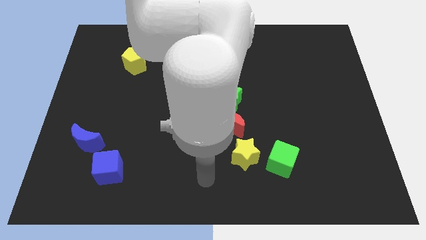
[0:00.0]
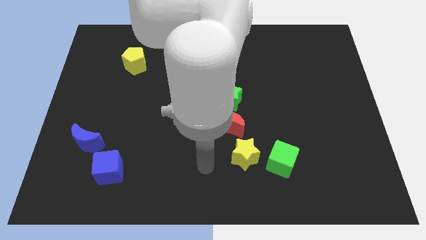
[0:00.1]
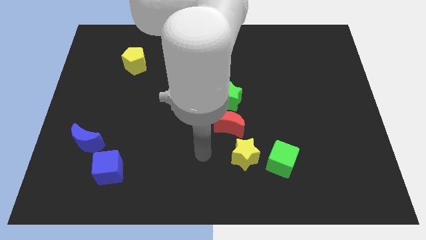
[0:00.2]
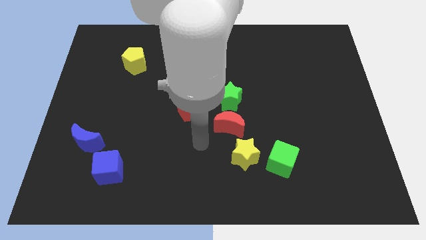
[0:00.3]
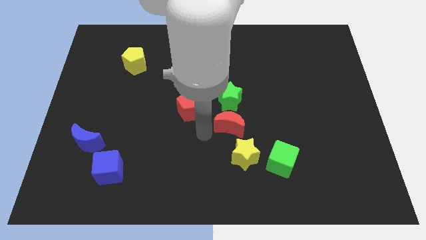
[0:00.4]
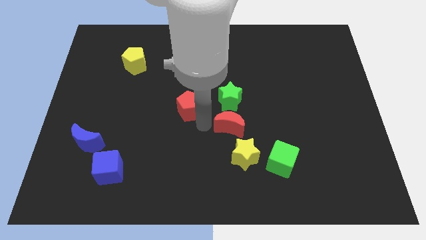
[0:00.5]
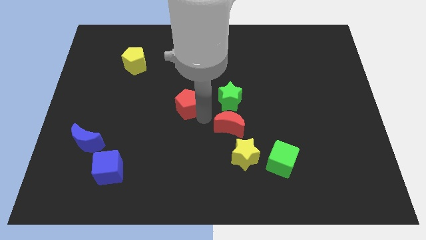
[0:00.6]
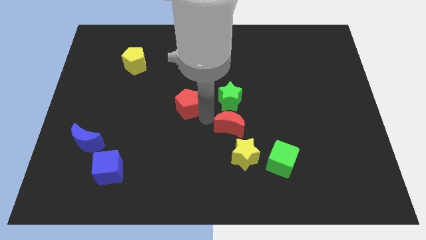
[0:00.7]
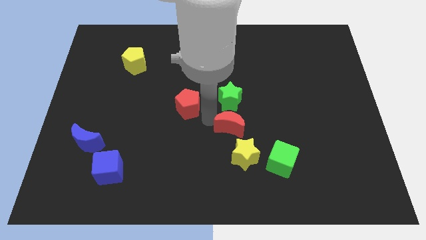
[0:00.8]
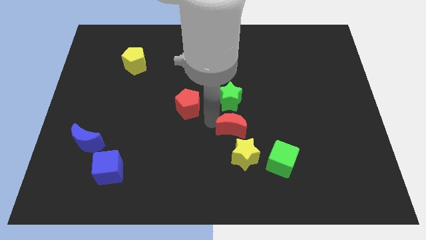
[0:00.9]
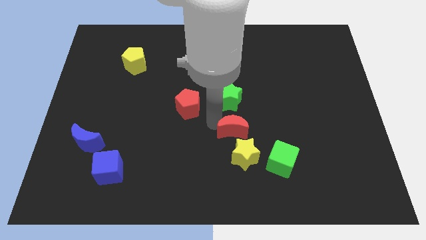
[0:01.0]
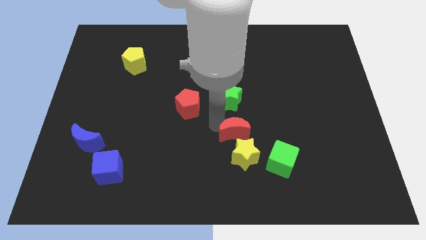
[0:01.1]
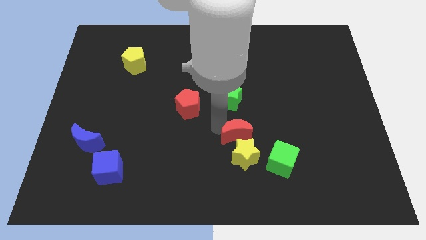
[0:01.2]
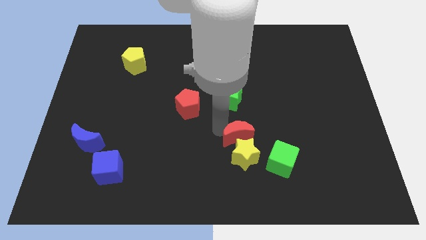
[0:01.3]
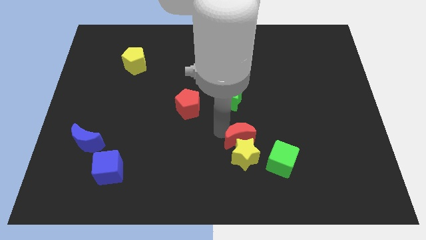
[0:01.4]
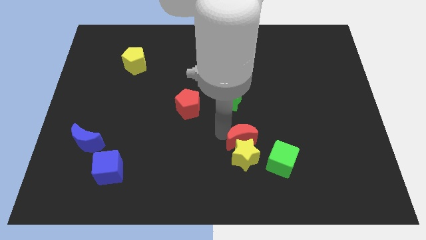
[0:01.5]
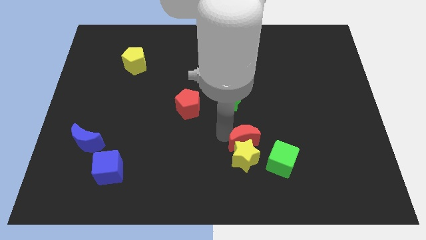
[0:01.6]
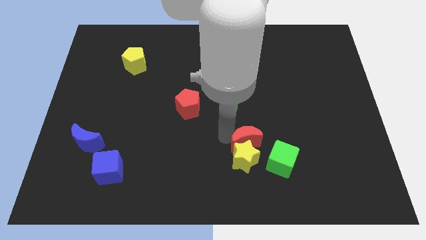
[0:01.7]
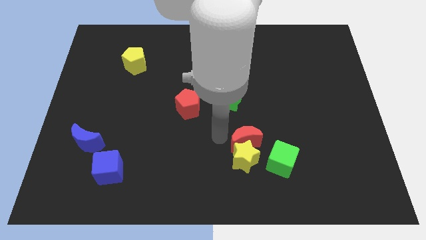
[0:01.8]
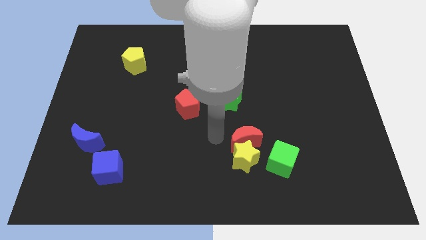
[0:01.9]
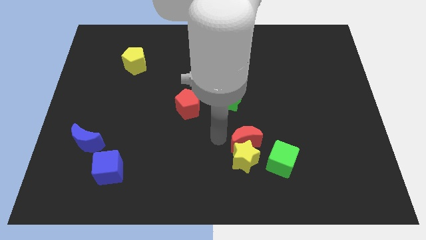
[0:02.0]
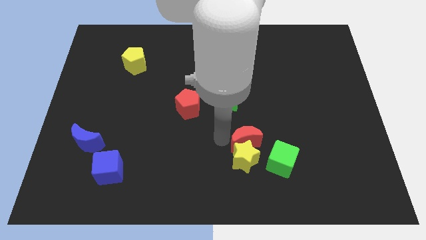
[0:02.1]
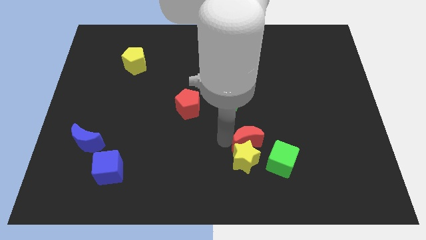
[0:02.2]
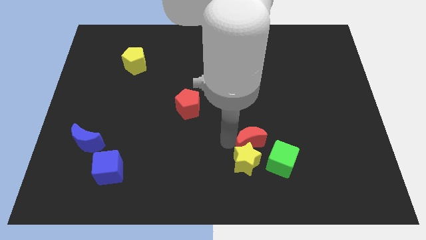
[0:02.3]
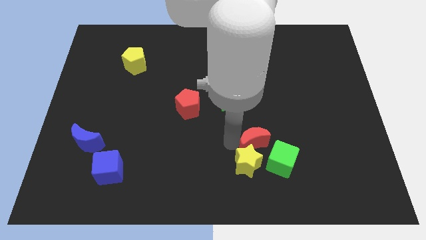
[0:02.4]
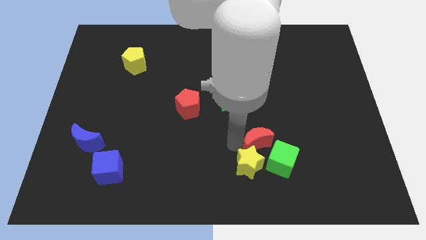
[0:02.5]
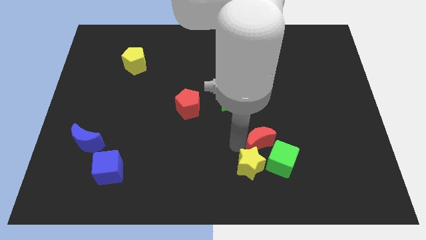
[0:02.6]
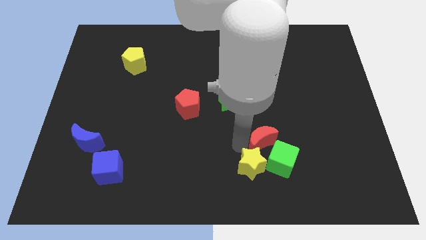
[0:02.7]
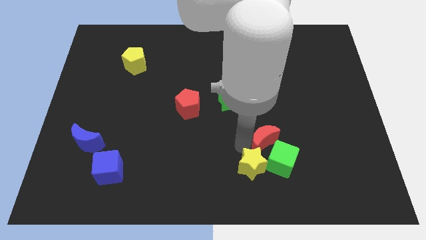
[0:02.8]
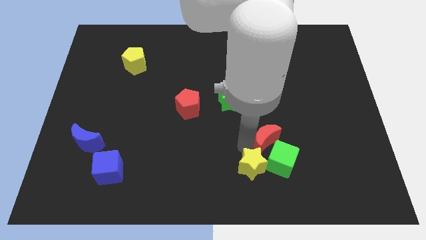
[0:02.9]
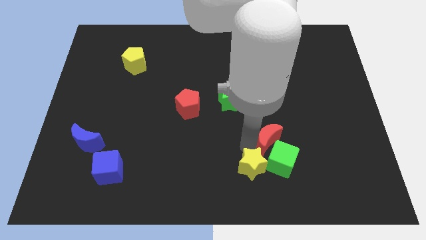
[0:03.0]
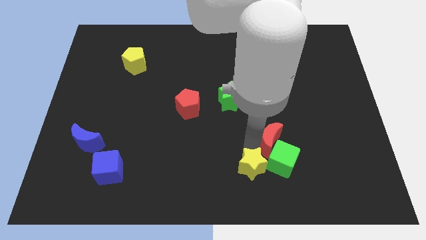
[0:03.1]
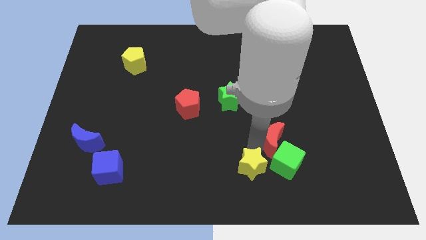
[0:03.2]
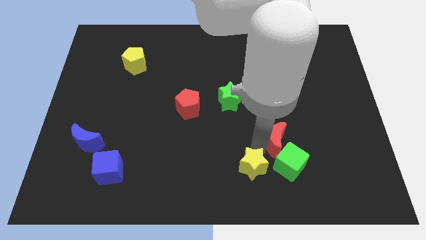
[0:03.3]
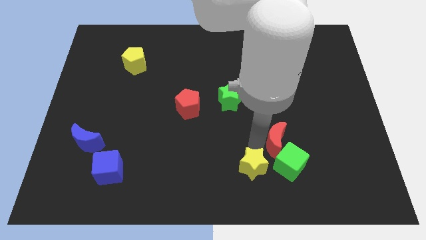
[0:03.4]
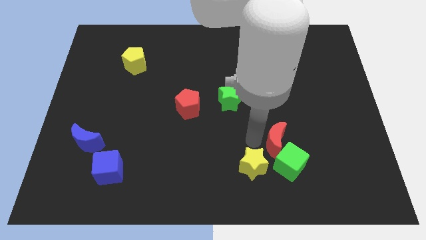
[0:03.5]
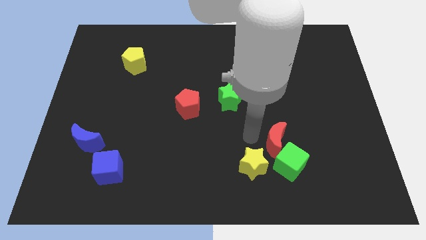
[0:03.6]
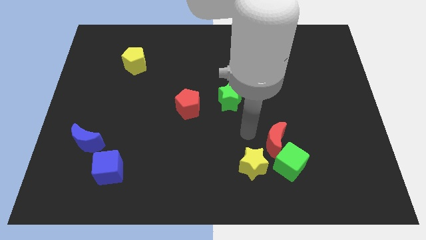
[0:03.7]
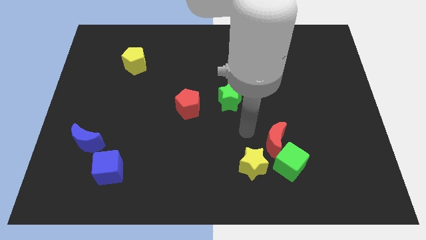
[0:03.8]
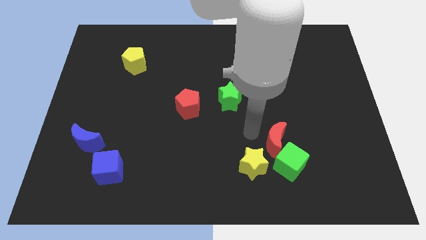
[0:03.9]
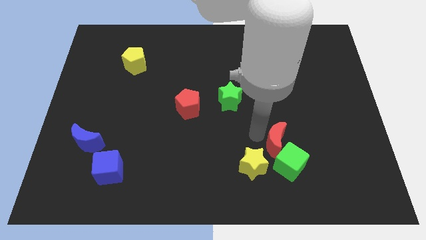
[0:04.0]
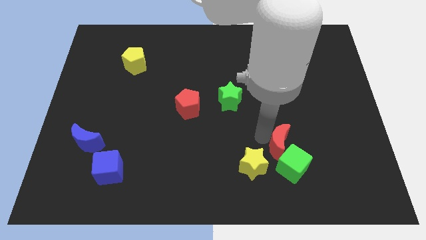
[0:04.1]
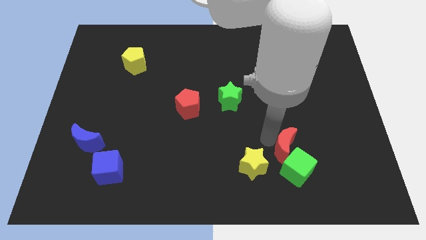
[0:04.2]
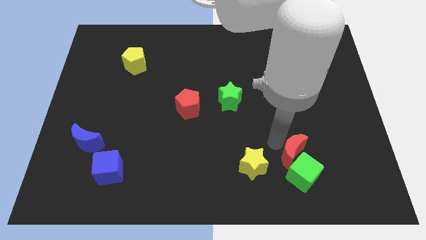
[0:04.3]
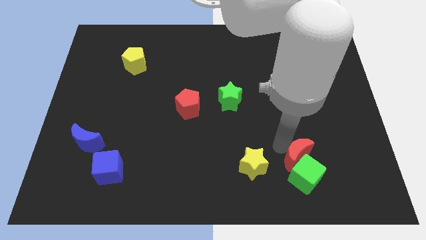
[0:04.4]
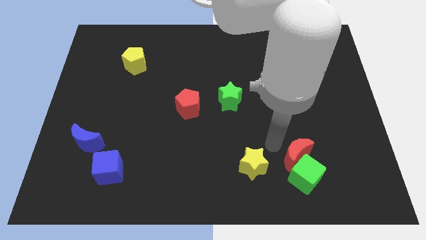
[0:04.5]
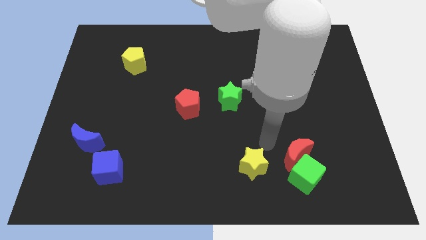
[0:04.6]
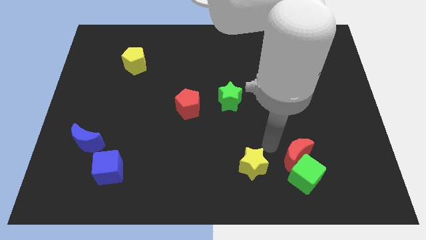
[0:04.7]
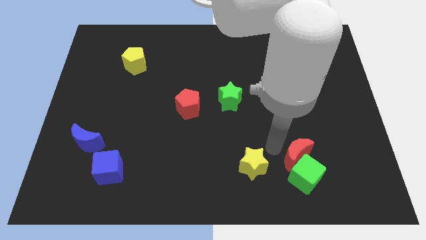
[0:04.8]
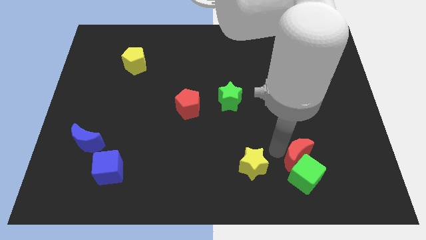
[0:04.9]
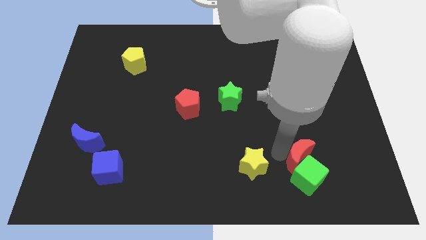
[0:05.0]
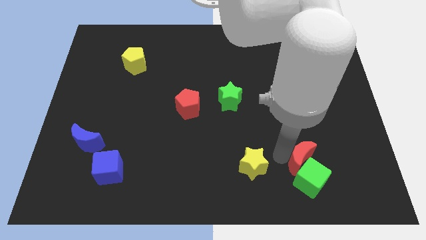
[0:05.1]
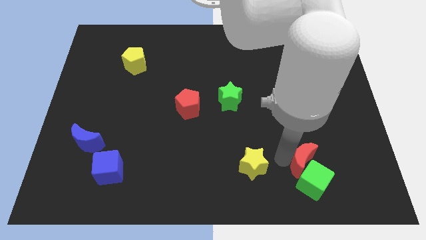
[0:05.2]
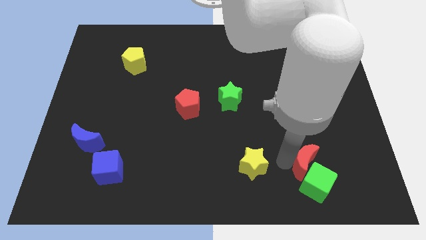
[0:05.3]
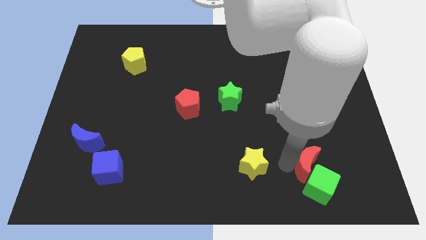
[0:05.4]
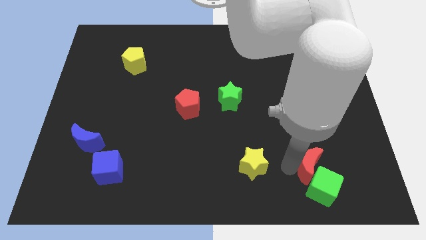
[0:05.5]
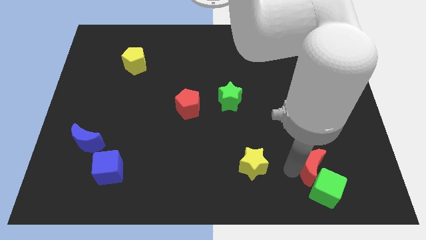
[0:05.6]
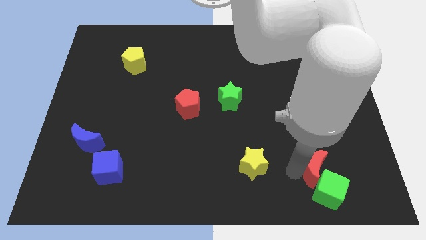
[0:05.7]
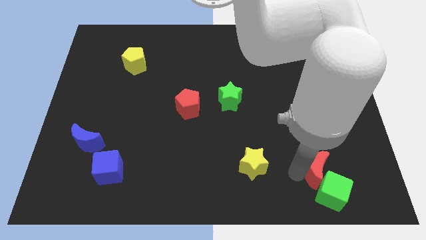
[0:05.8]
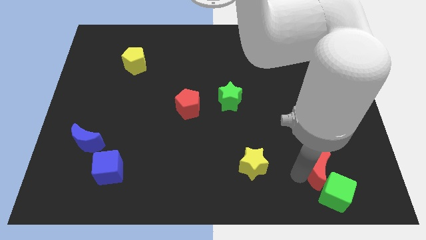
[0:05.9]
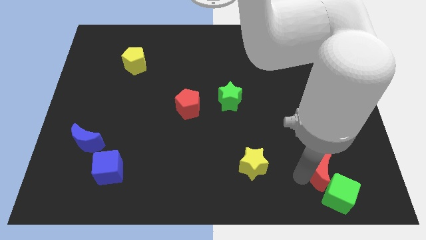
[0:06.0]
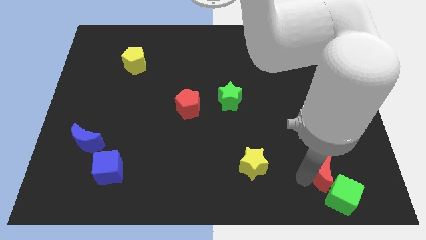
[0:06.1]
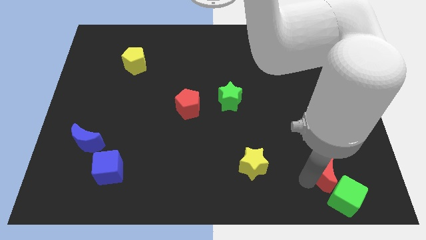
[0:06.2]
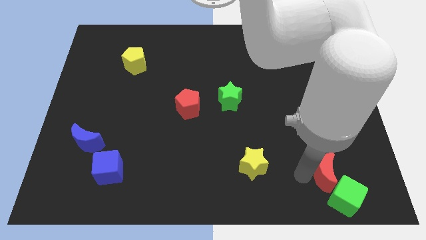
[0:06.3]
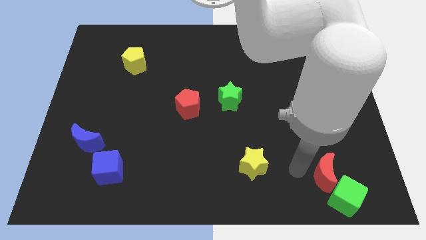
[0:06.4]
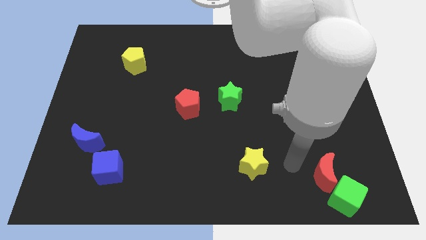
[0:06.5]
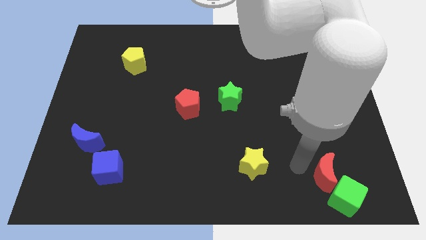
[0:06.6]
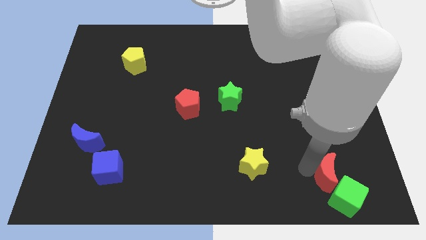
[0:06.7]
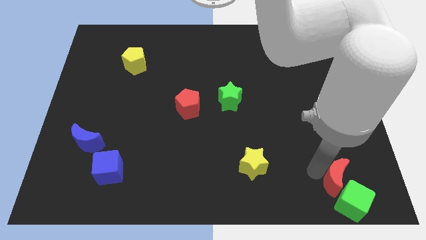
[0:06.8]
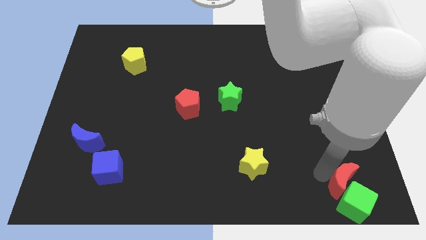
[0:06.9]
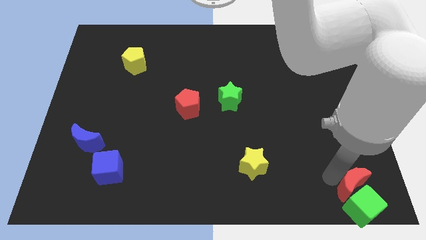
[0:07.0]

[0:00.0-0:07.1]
move the red moon to the bottom right corner
